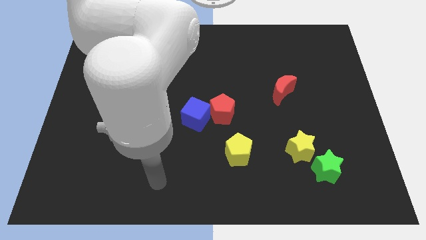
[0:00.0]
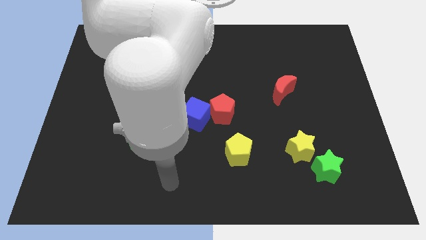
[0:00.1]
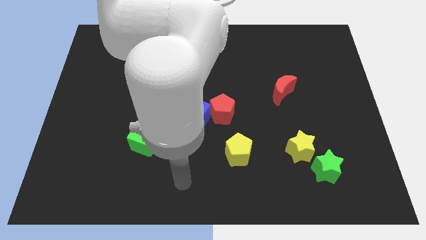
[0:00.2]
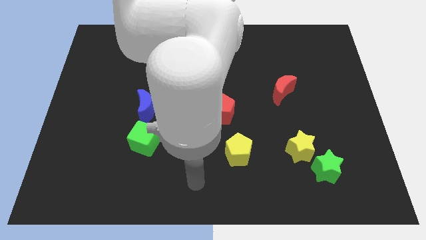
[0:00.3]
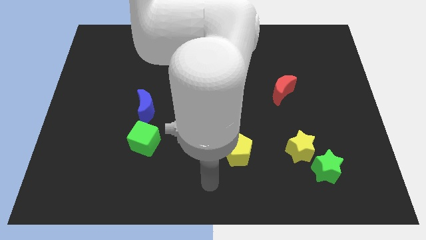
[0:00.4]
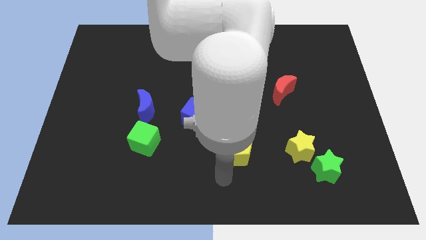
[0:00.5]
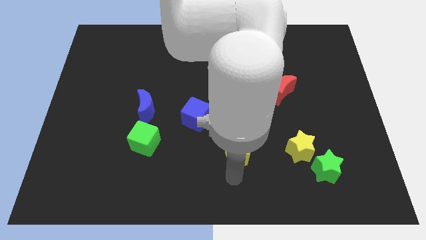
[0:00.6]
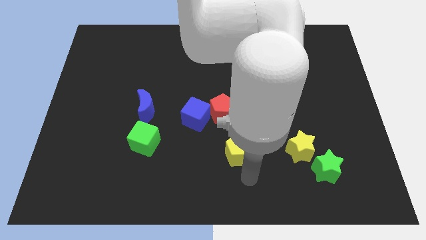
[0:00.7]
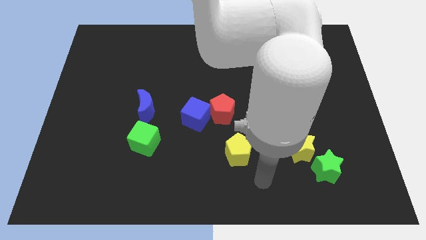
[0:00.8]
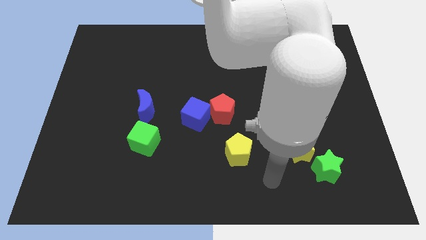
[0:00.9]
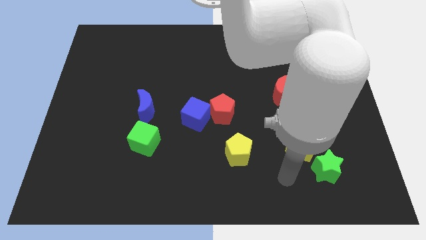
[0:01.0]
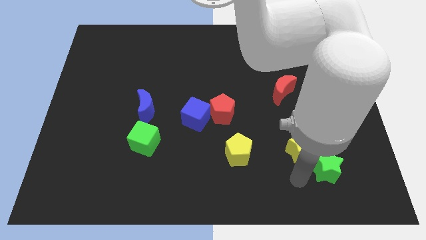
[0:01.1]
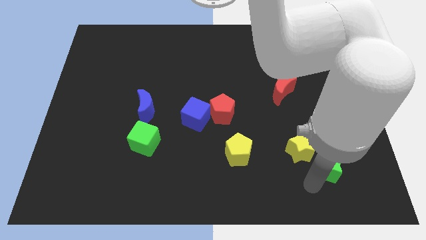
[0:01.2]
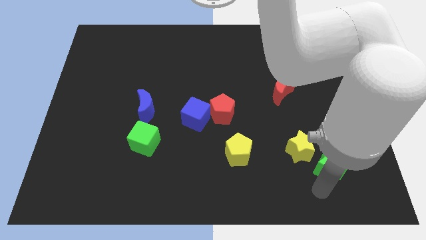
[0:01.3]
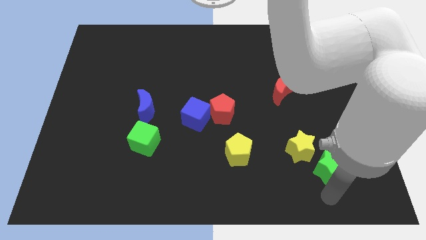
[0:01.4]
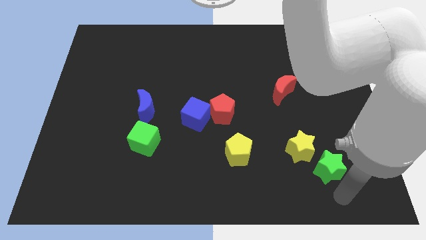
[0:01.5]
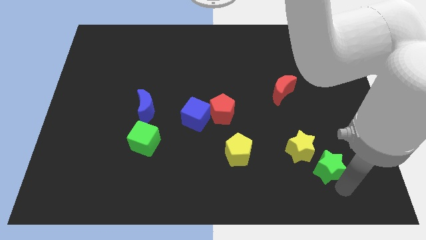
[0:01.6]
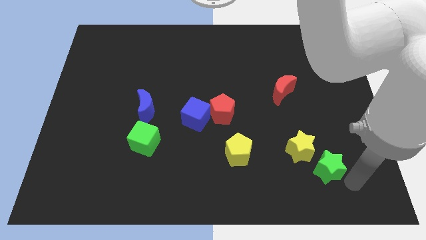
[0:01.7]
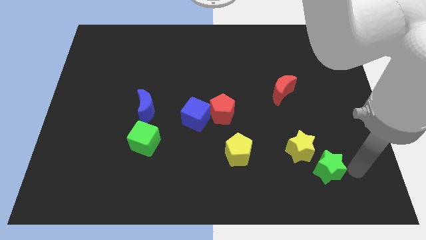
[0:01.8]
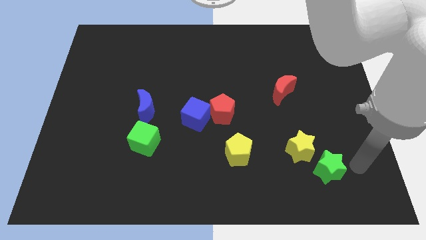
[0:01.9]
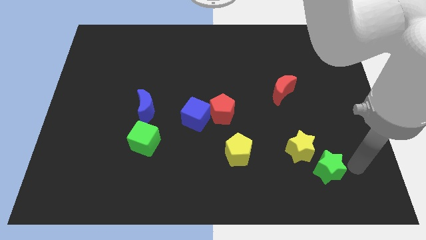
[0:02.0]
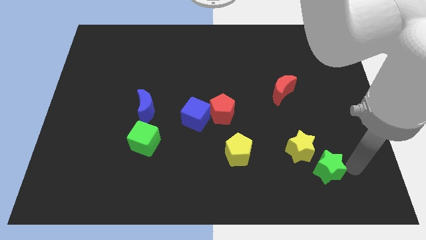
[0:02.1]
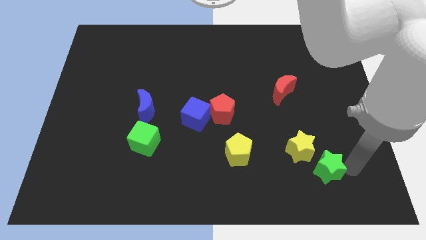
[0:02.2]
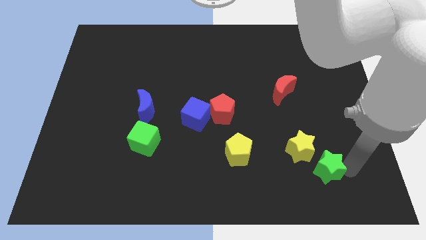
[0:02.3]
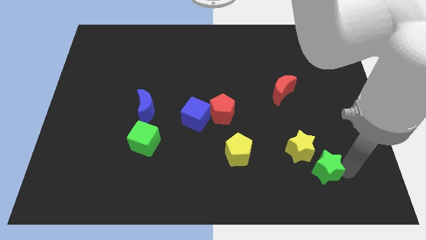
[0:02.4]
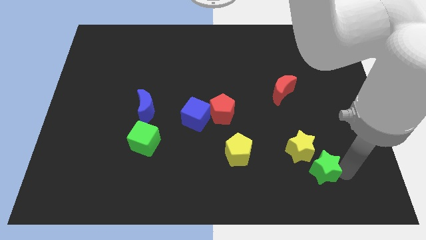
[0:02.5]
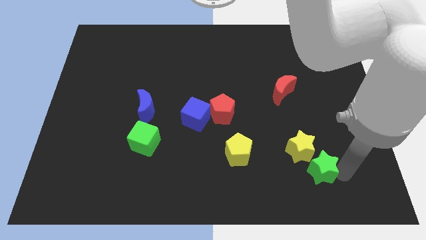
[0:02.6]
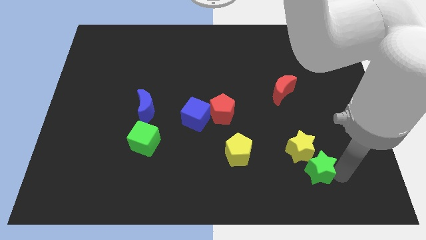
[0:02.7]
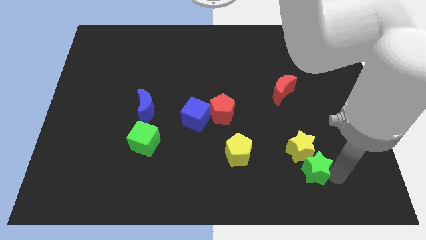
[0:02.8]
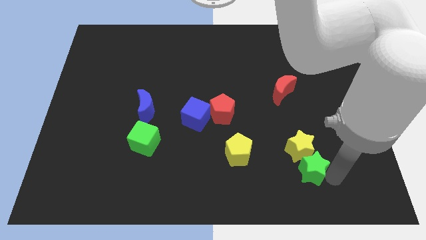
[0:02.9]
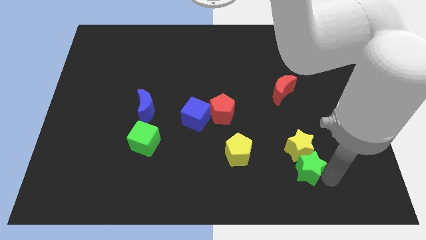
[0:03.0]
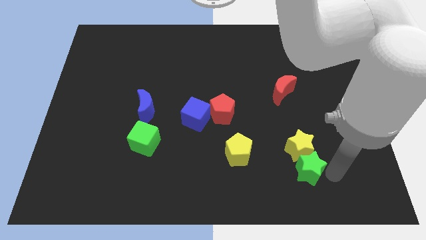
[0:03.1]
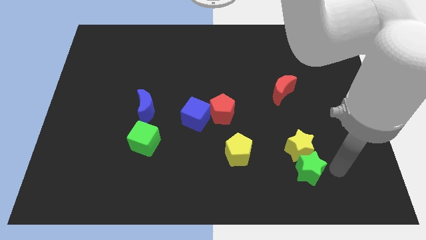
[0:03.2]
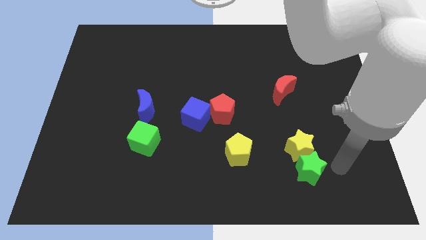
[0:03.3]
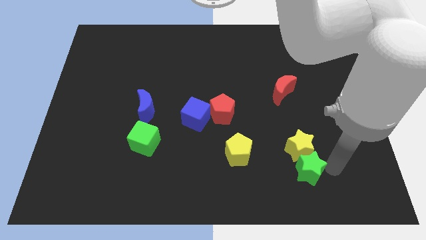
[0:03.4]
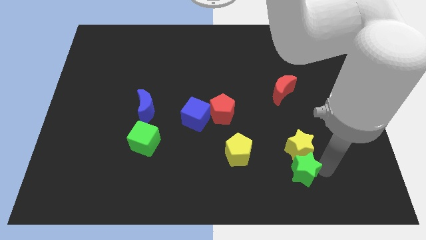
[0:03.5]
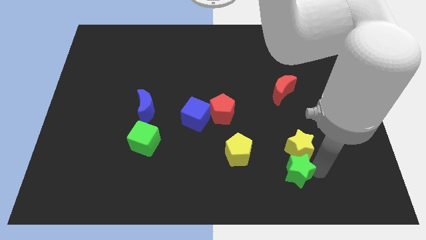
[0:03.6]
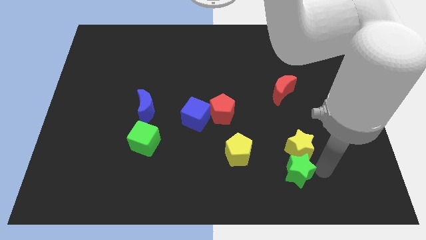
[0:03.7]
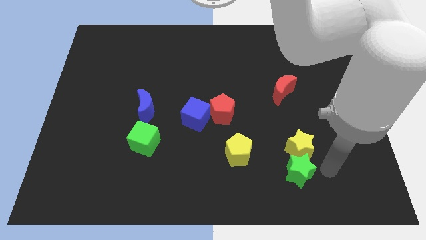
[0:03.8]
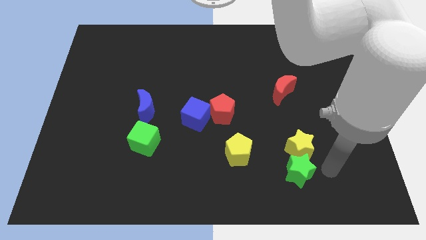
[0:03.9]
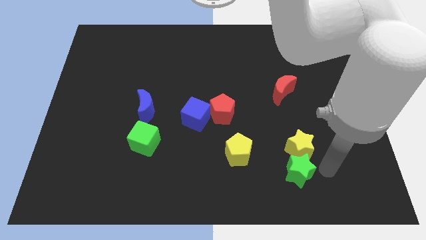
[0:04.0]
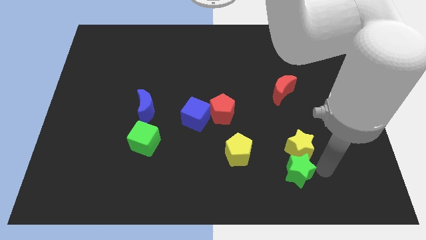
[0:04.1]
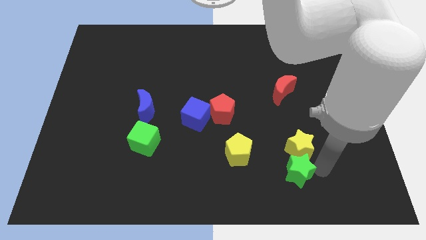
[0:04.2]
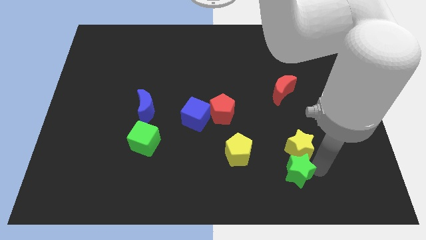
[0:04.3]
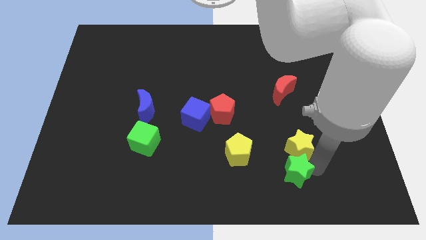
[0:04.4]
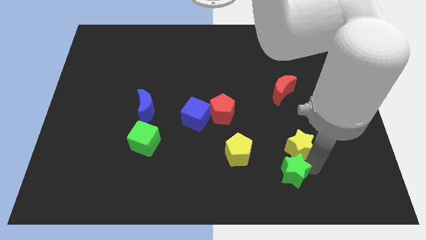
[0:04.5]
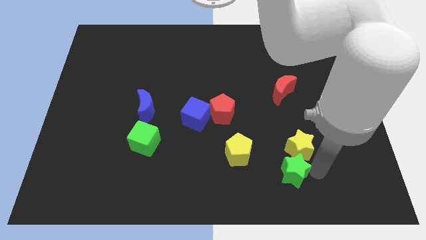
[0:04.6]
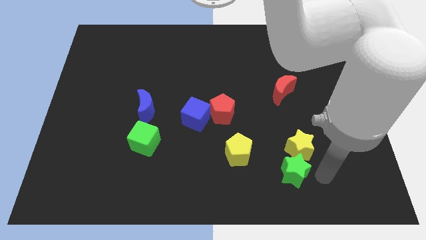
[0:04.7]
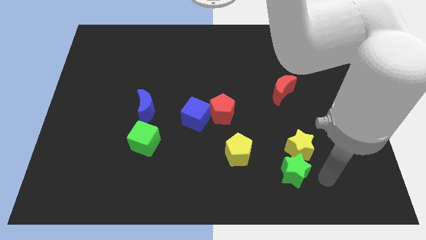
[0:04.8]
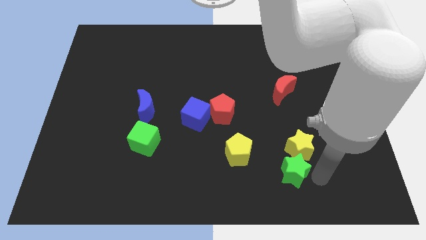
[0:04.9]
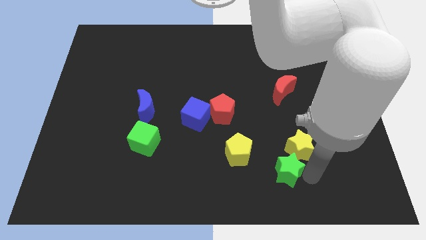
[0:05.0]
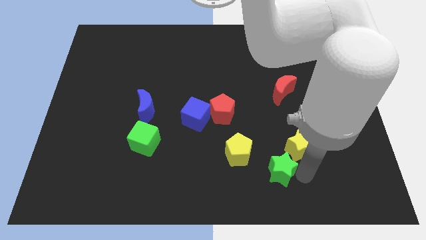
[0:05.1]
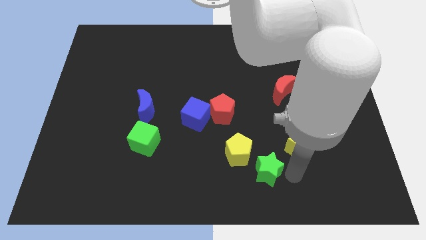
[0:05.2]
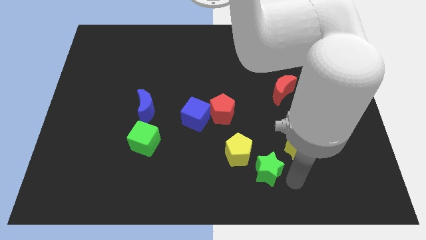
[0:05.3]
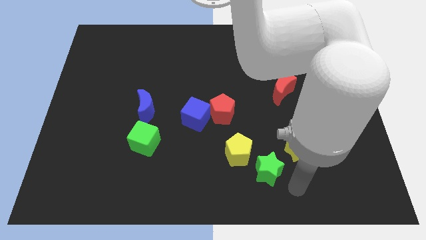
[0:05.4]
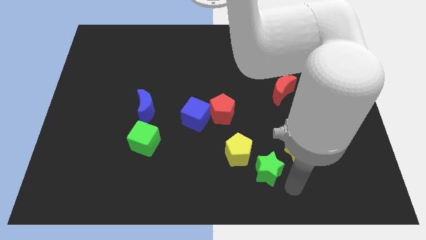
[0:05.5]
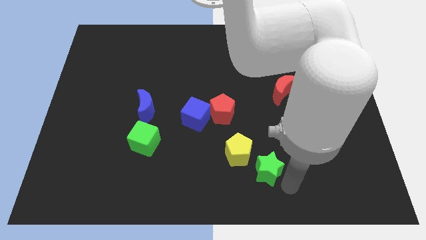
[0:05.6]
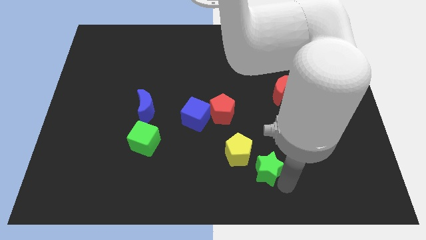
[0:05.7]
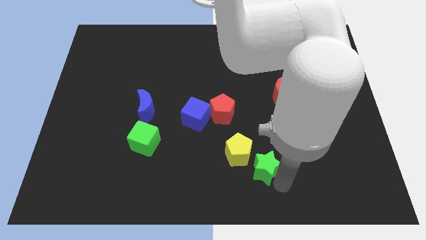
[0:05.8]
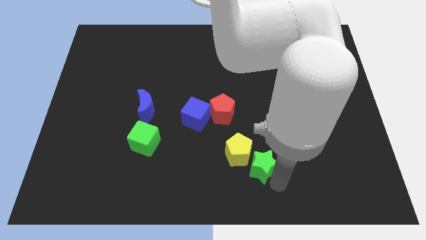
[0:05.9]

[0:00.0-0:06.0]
move the green star to the yellow pentagon
